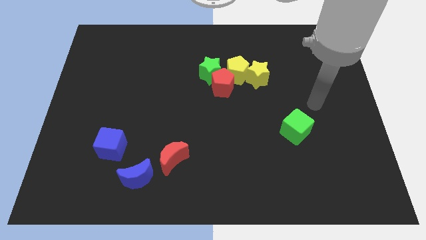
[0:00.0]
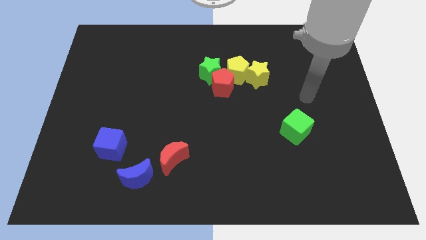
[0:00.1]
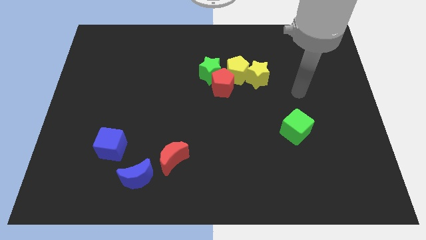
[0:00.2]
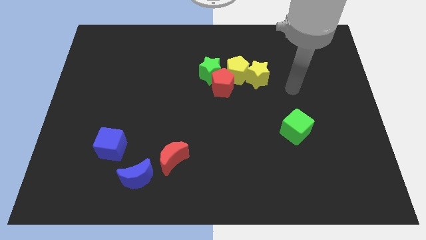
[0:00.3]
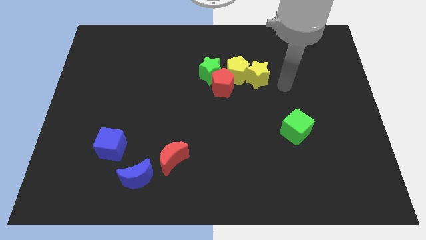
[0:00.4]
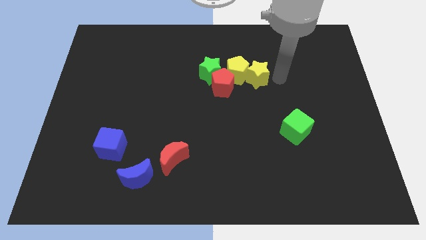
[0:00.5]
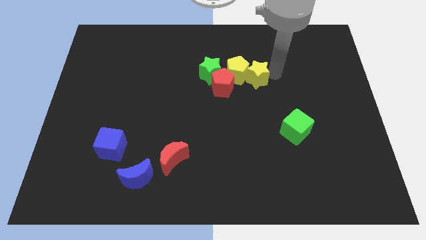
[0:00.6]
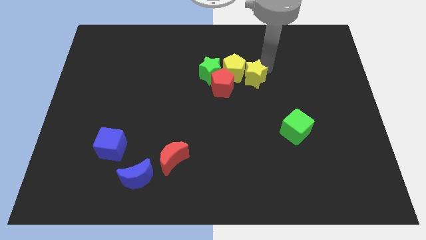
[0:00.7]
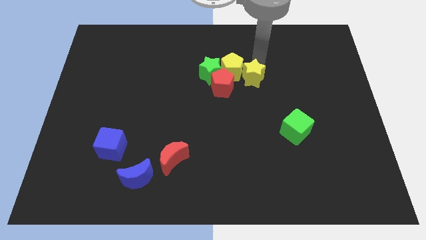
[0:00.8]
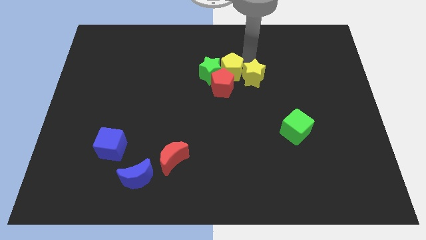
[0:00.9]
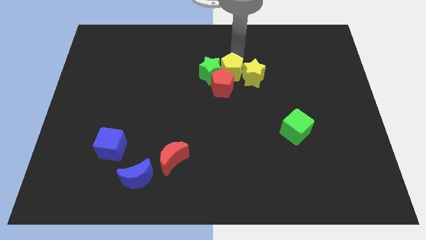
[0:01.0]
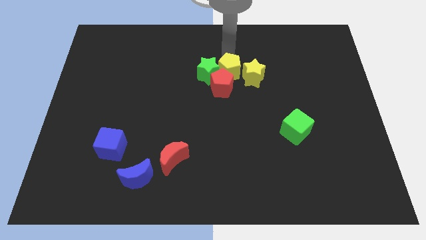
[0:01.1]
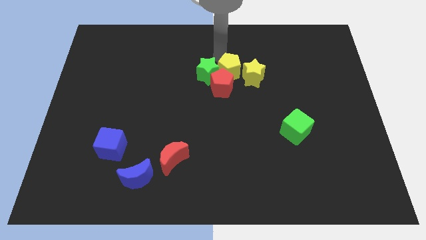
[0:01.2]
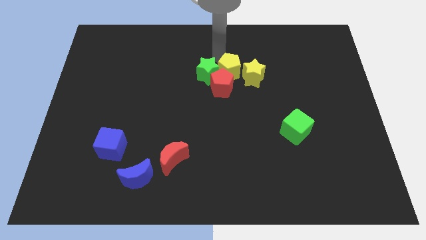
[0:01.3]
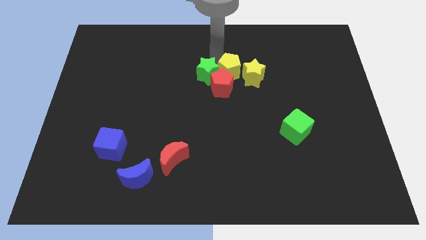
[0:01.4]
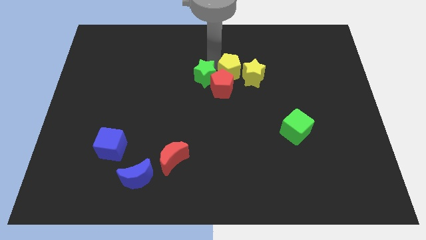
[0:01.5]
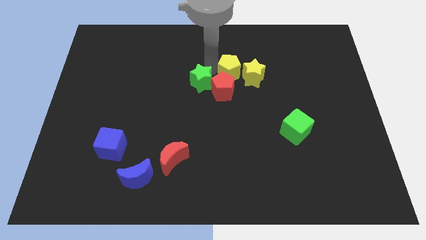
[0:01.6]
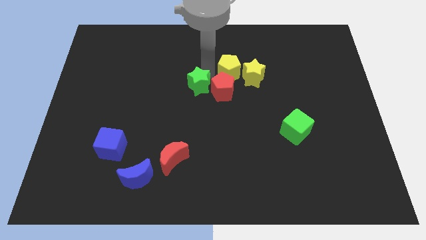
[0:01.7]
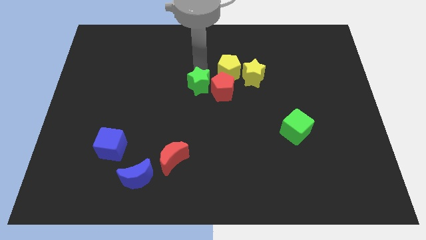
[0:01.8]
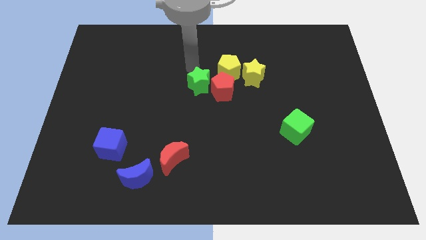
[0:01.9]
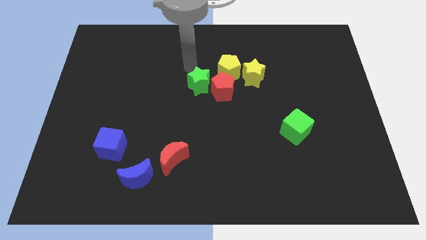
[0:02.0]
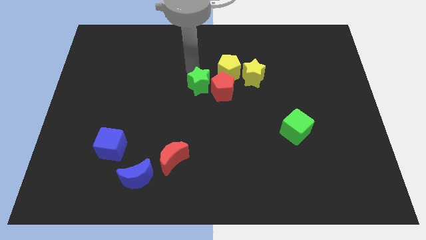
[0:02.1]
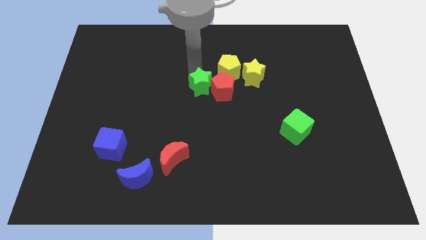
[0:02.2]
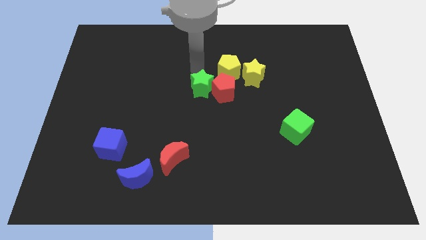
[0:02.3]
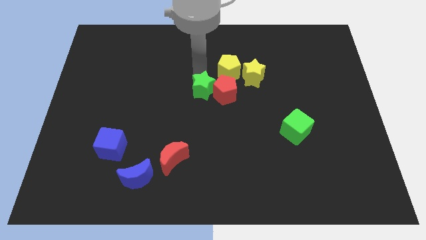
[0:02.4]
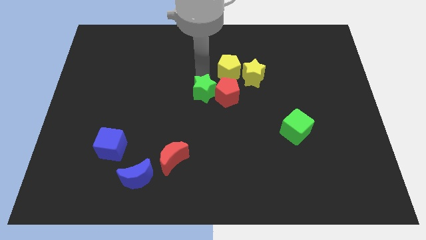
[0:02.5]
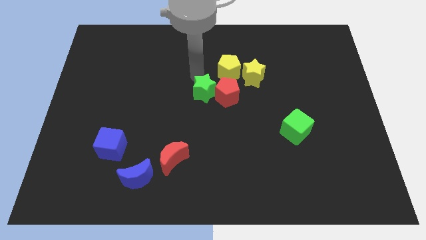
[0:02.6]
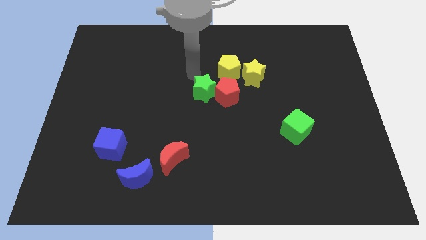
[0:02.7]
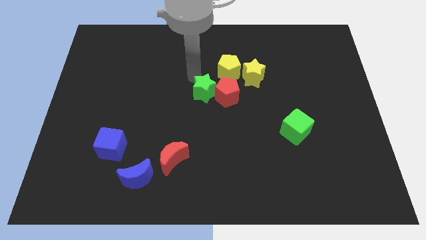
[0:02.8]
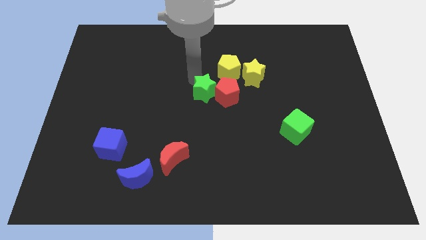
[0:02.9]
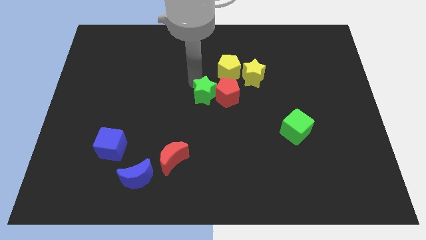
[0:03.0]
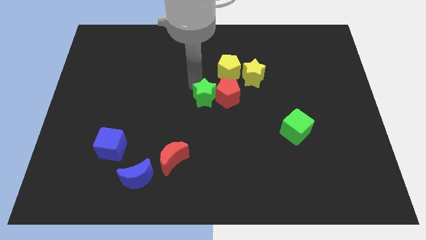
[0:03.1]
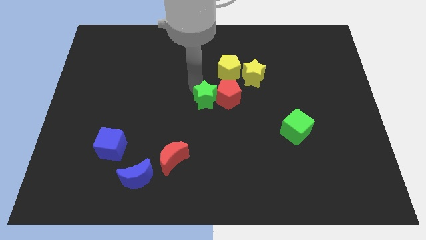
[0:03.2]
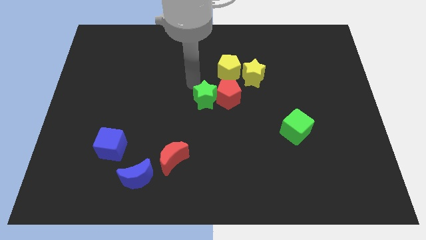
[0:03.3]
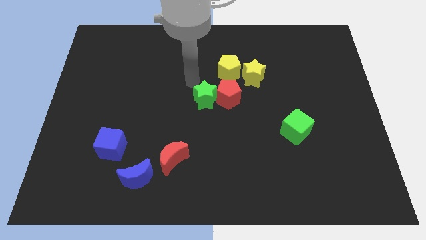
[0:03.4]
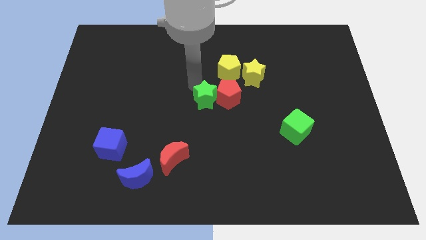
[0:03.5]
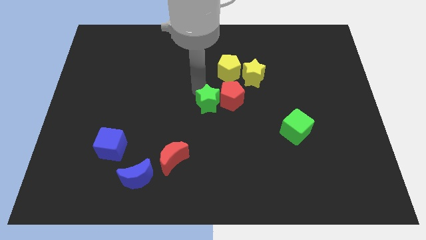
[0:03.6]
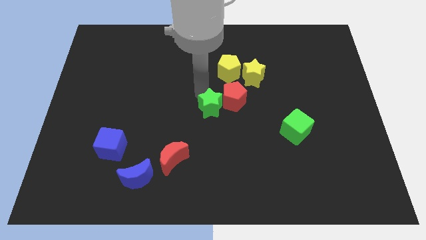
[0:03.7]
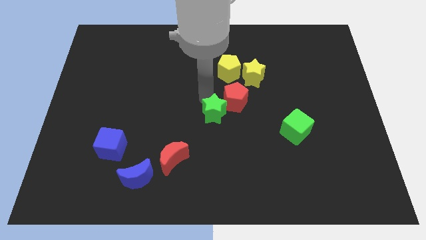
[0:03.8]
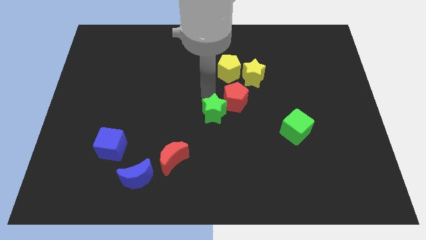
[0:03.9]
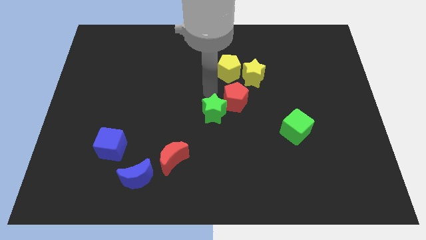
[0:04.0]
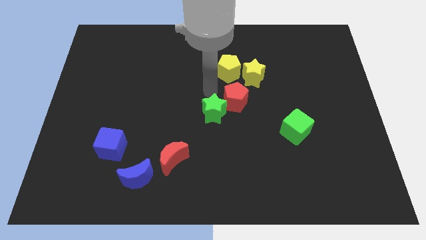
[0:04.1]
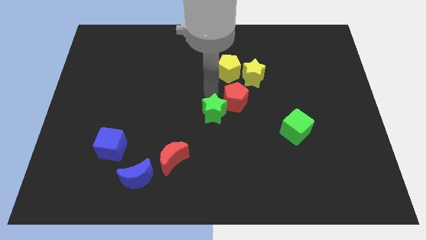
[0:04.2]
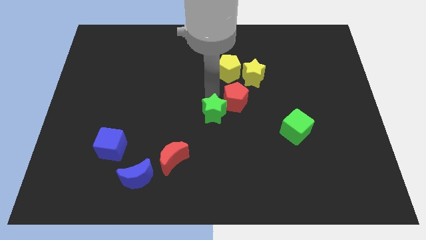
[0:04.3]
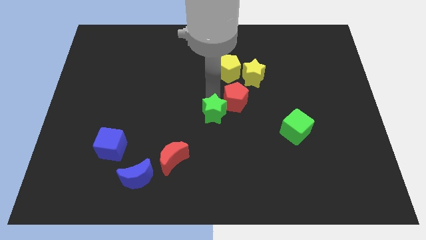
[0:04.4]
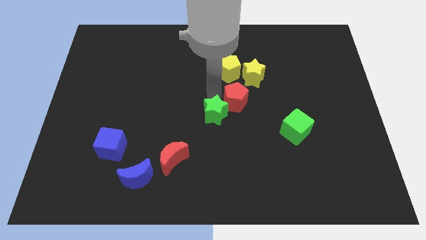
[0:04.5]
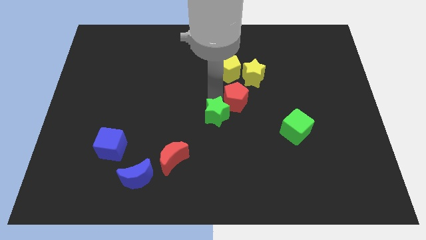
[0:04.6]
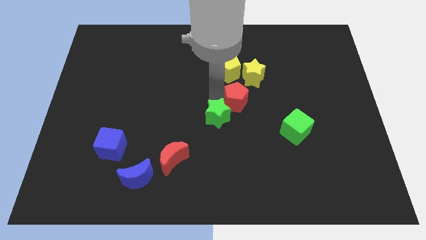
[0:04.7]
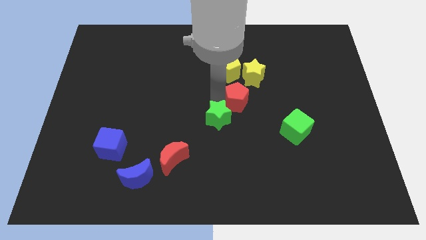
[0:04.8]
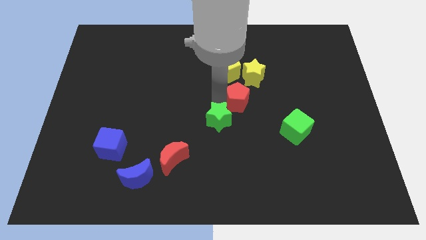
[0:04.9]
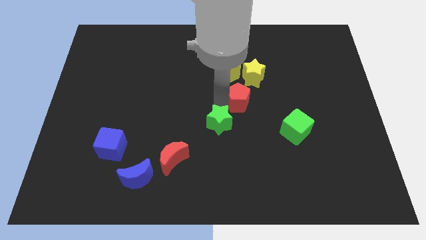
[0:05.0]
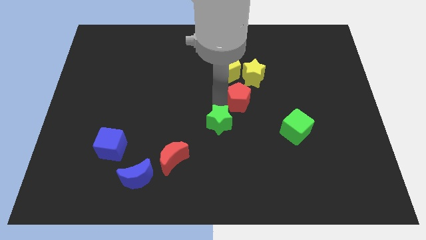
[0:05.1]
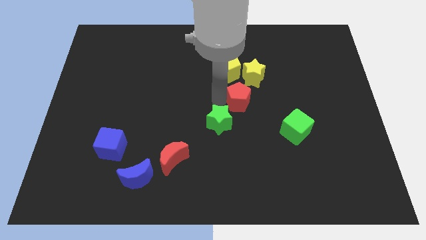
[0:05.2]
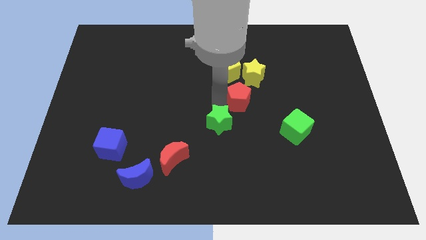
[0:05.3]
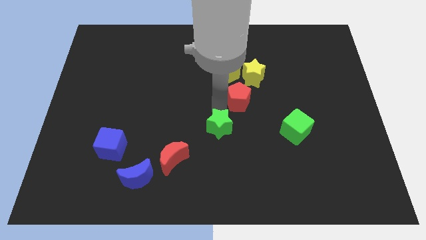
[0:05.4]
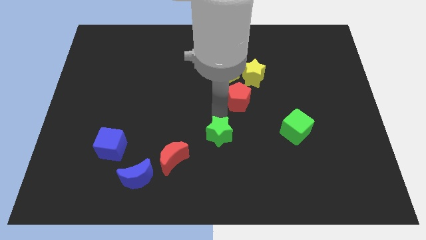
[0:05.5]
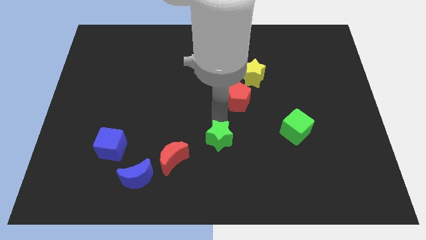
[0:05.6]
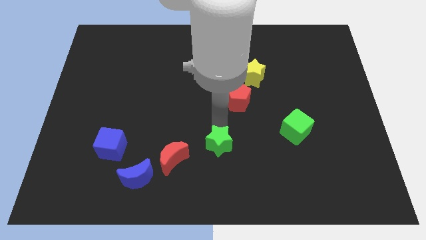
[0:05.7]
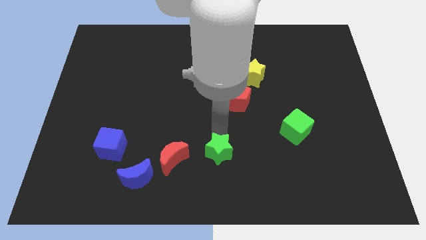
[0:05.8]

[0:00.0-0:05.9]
slide the green star to the bottom

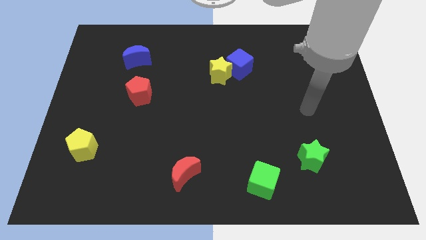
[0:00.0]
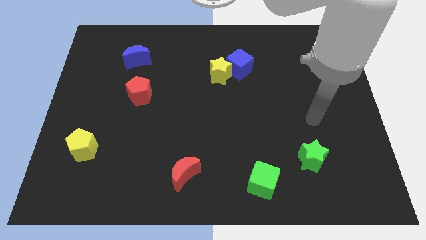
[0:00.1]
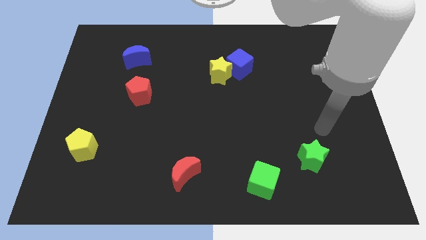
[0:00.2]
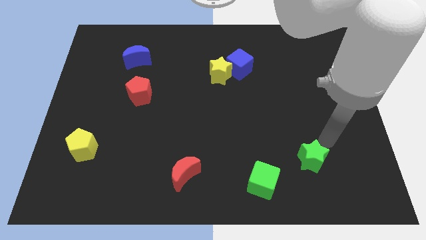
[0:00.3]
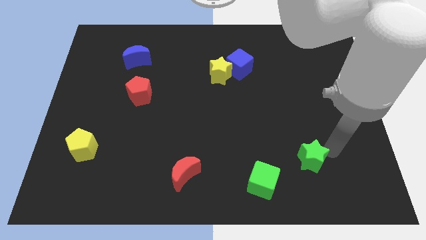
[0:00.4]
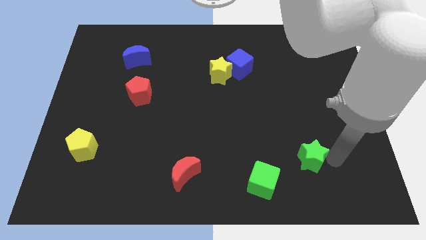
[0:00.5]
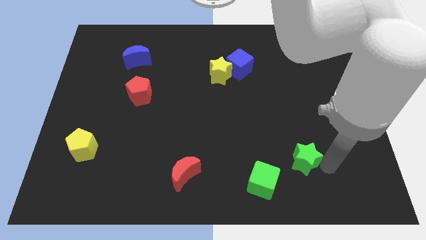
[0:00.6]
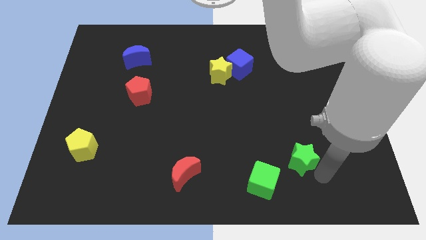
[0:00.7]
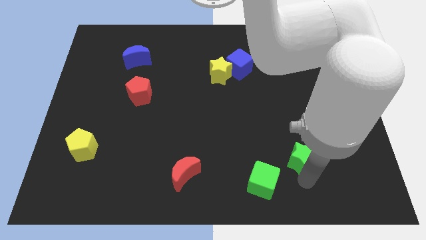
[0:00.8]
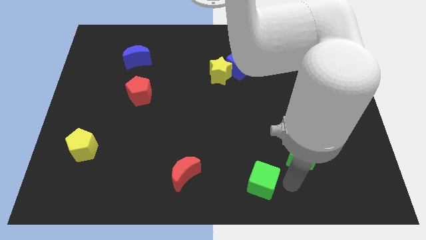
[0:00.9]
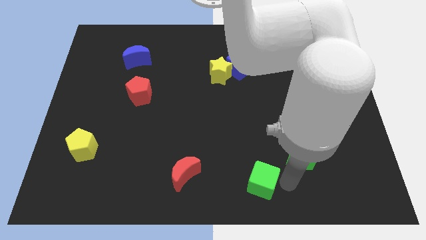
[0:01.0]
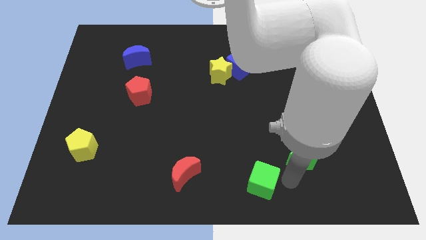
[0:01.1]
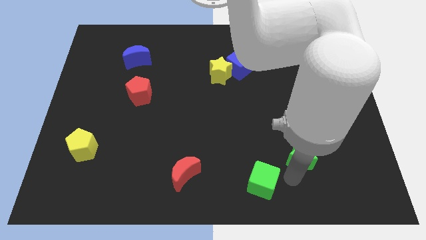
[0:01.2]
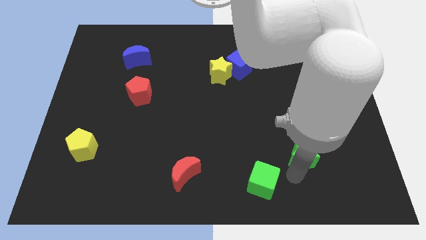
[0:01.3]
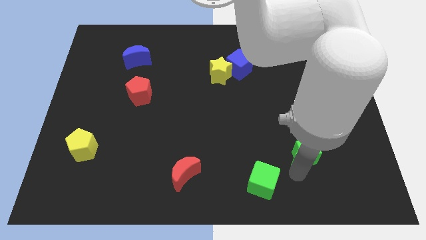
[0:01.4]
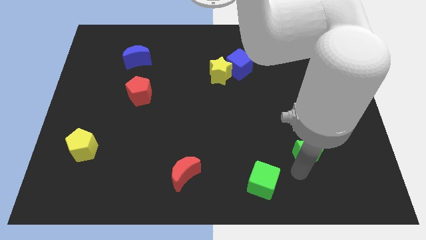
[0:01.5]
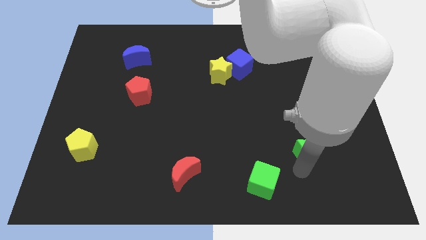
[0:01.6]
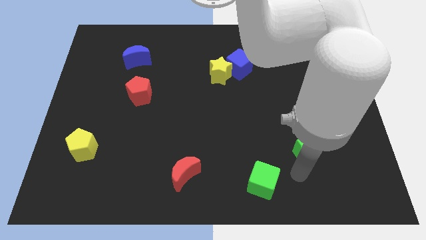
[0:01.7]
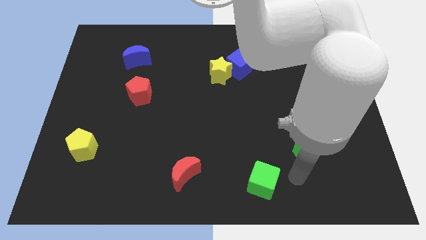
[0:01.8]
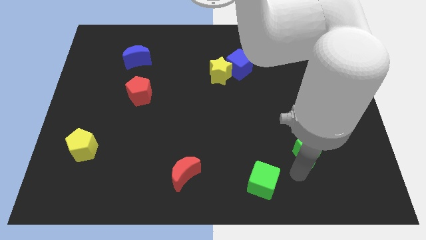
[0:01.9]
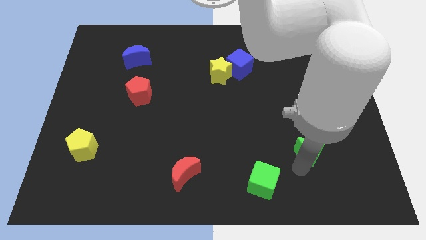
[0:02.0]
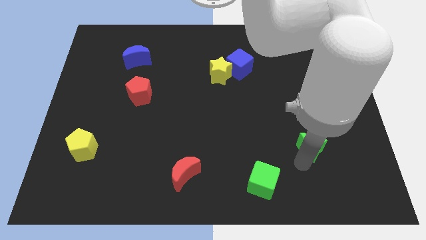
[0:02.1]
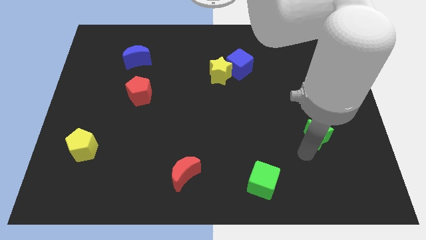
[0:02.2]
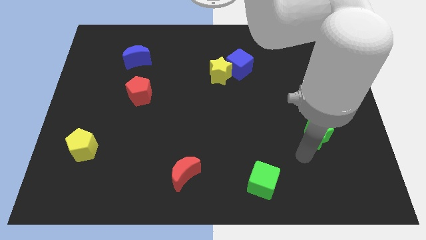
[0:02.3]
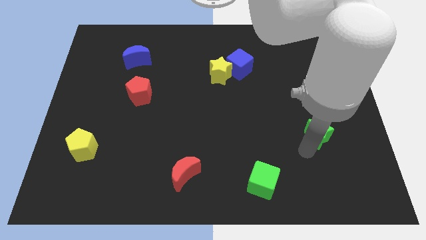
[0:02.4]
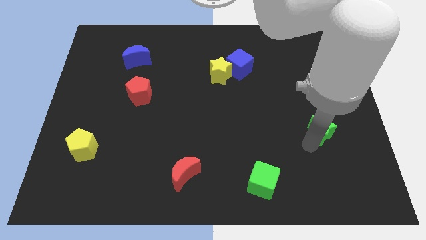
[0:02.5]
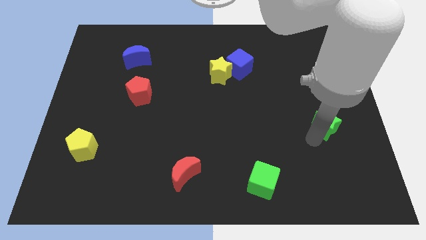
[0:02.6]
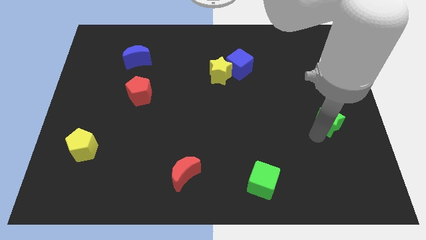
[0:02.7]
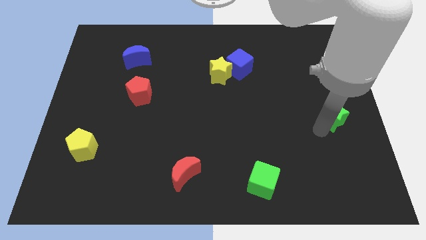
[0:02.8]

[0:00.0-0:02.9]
move the green star to the right side
